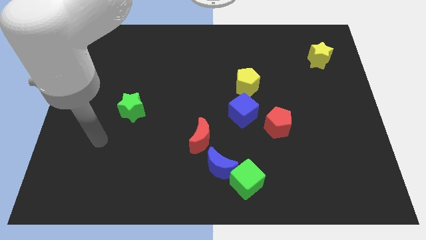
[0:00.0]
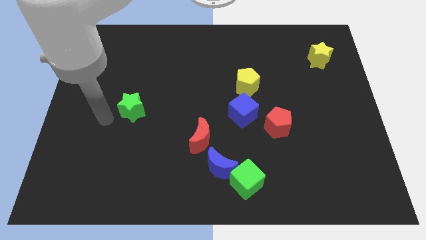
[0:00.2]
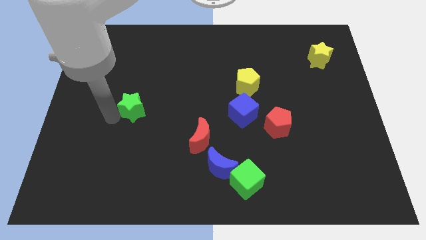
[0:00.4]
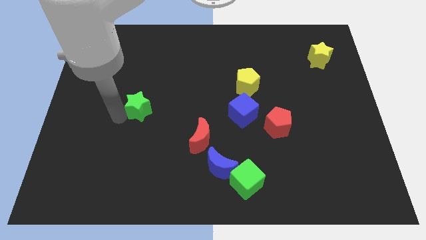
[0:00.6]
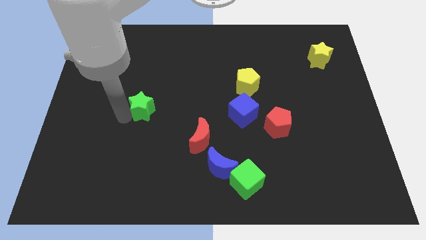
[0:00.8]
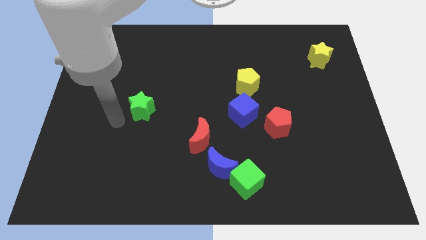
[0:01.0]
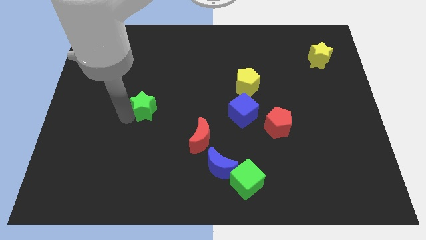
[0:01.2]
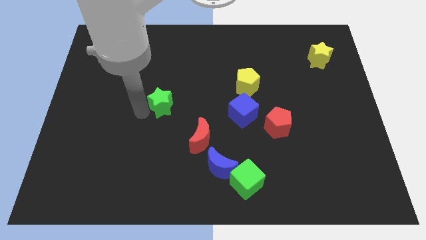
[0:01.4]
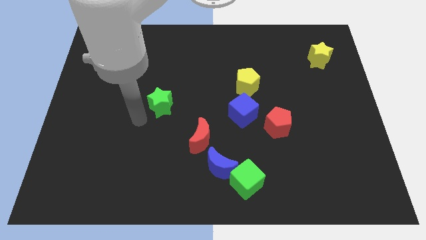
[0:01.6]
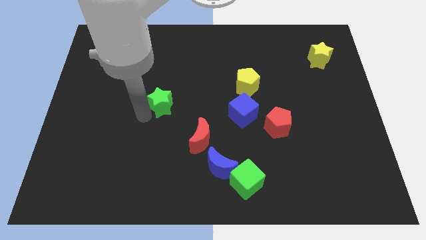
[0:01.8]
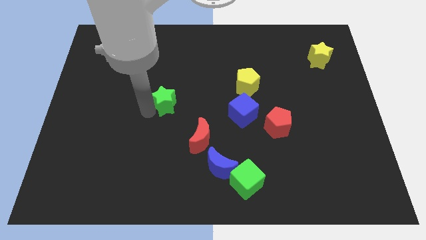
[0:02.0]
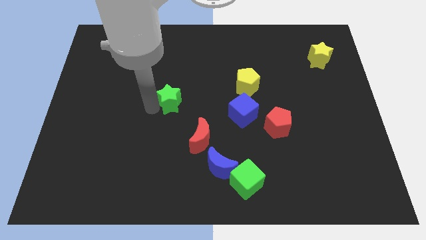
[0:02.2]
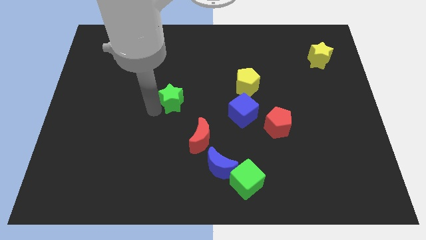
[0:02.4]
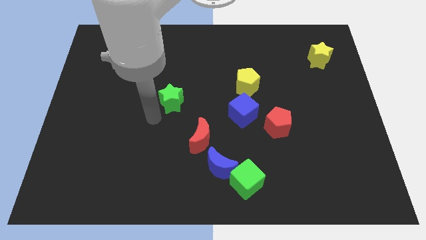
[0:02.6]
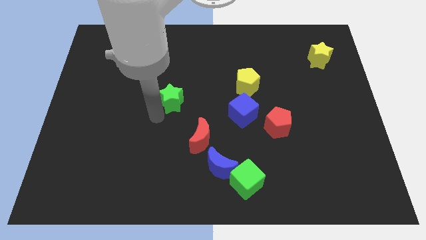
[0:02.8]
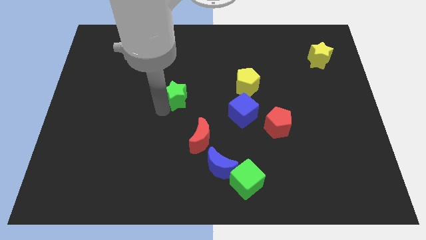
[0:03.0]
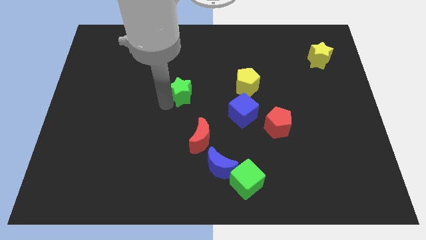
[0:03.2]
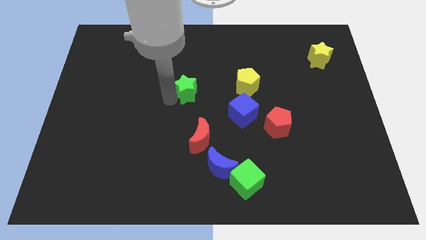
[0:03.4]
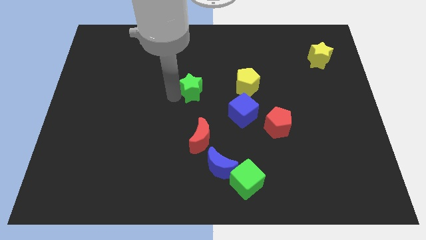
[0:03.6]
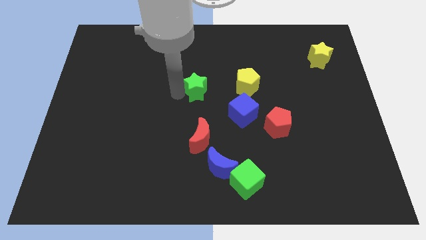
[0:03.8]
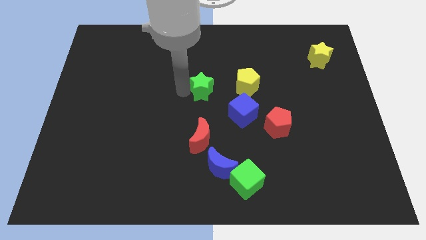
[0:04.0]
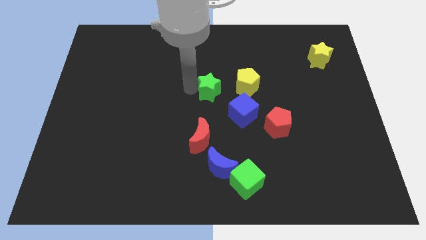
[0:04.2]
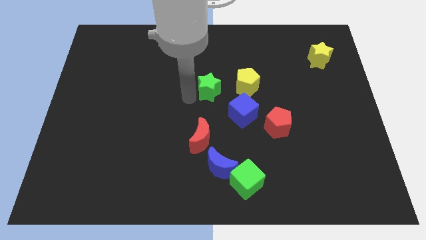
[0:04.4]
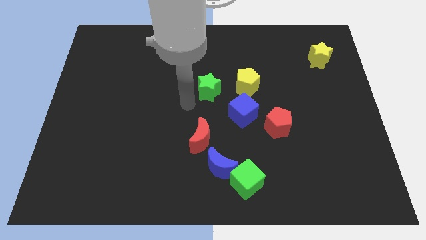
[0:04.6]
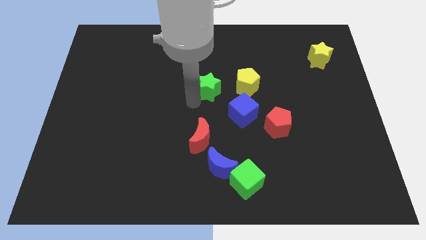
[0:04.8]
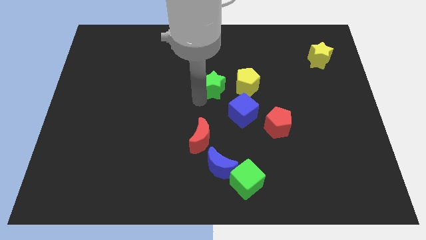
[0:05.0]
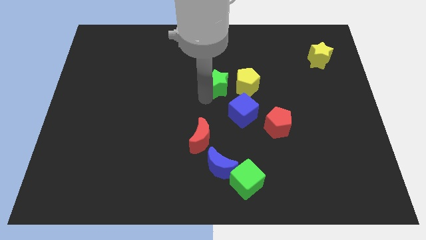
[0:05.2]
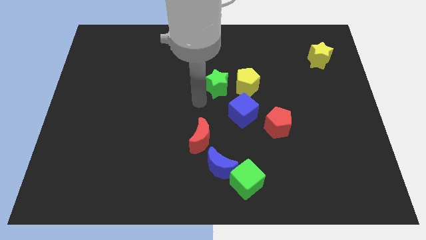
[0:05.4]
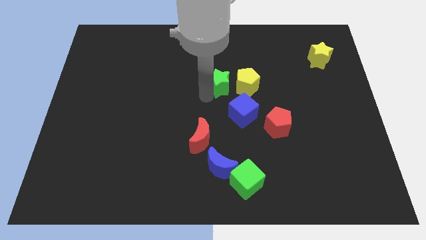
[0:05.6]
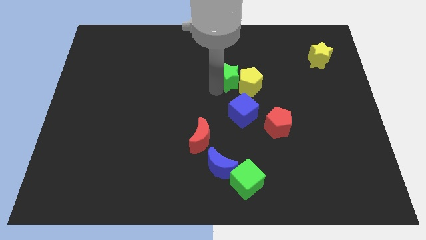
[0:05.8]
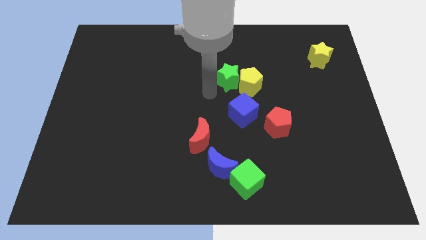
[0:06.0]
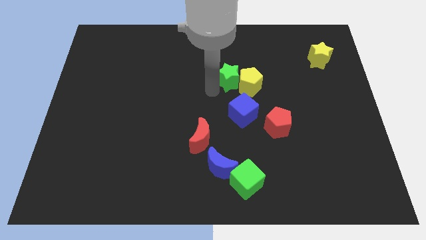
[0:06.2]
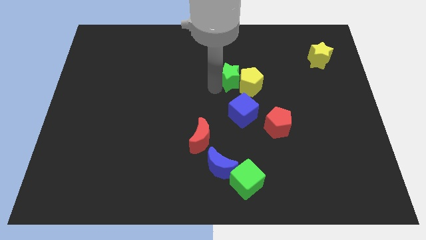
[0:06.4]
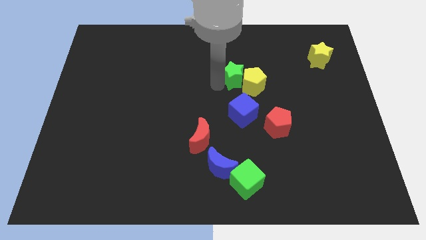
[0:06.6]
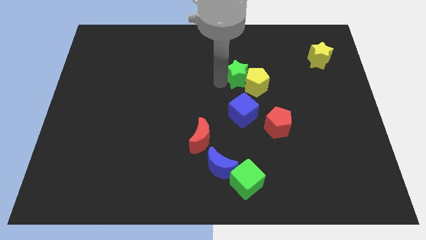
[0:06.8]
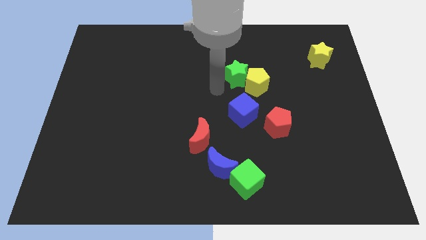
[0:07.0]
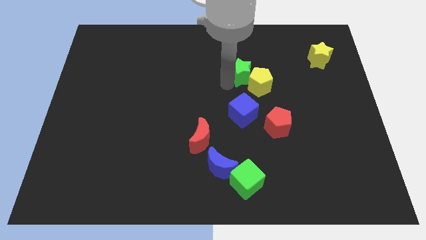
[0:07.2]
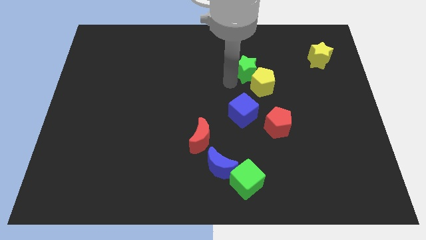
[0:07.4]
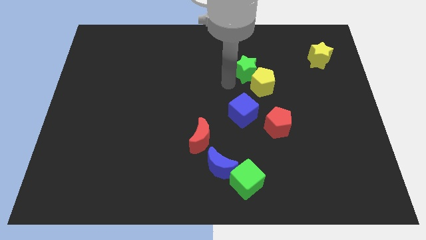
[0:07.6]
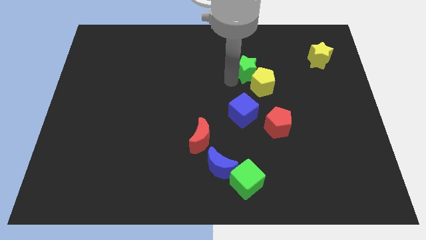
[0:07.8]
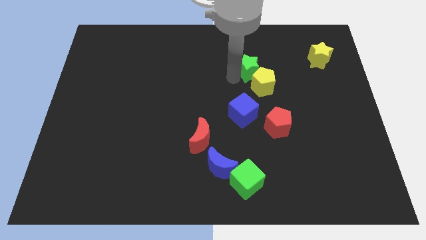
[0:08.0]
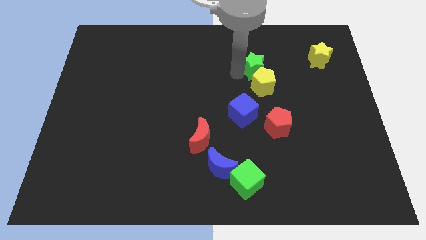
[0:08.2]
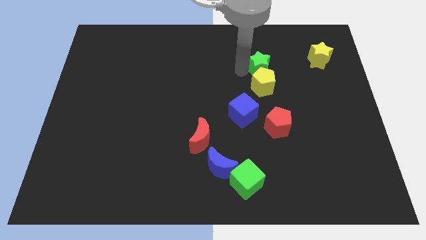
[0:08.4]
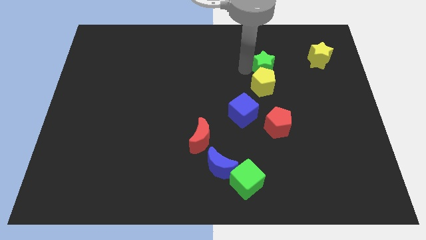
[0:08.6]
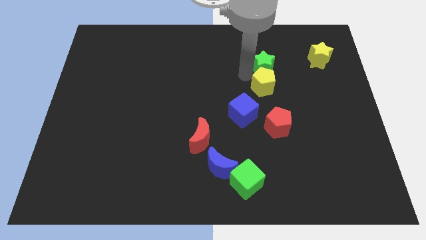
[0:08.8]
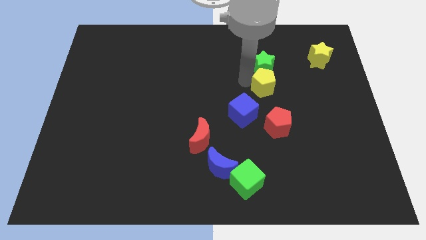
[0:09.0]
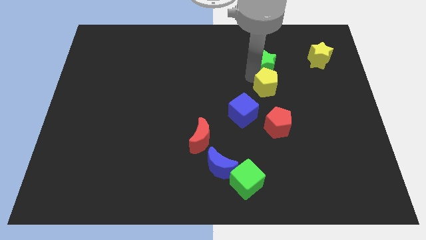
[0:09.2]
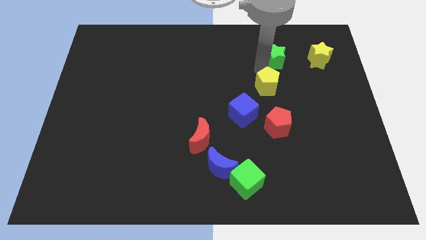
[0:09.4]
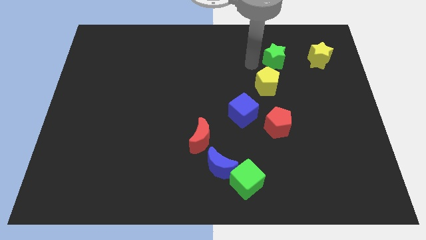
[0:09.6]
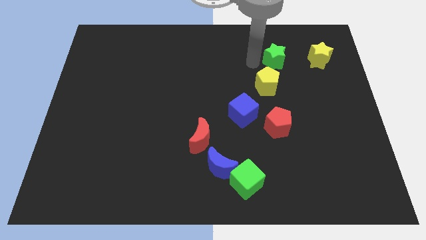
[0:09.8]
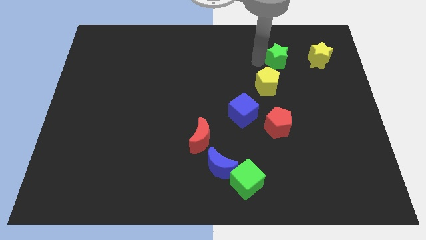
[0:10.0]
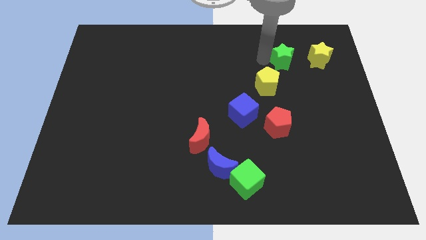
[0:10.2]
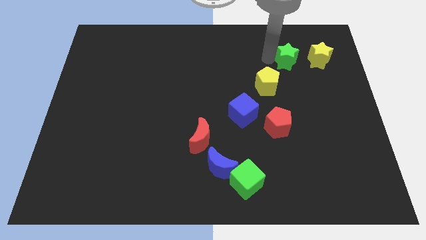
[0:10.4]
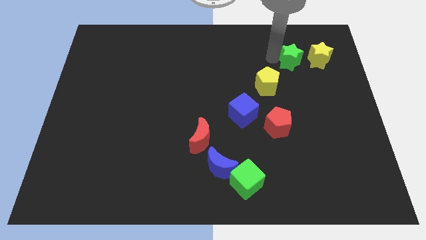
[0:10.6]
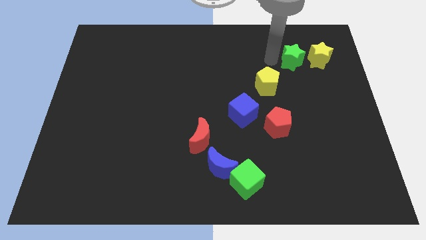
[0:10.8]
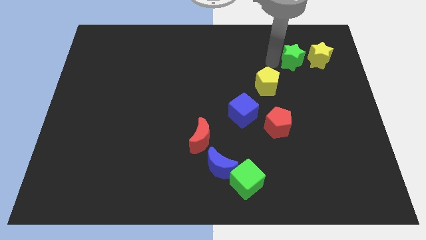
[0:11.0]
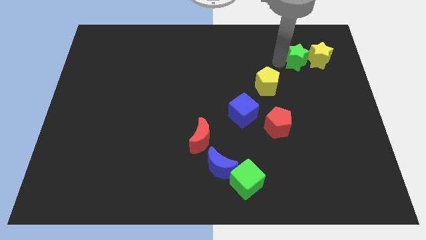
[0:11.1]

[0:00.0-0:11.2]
move the green star close to the yellow star

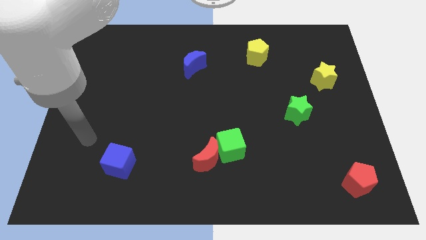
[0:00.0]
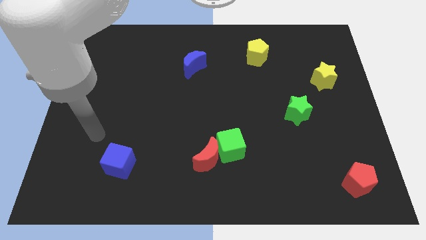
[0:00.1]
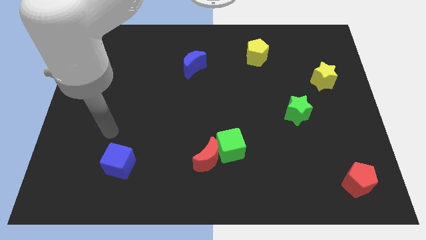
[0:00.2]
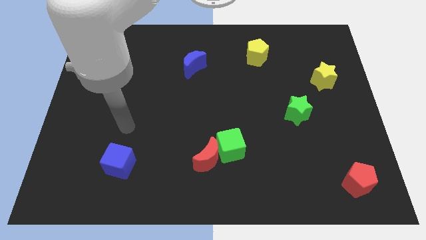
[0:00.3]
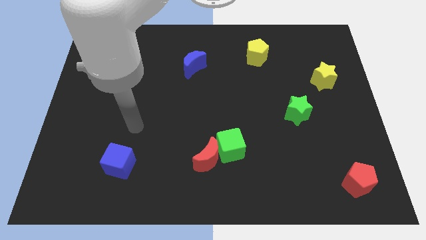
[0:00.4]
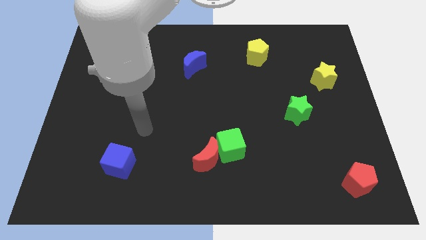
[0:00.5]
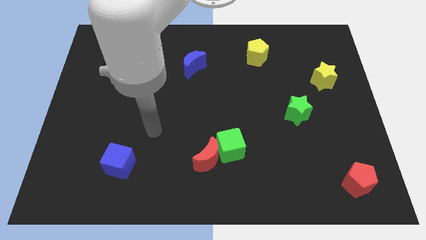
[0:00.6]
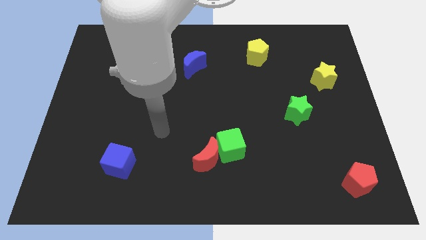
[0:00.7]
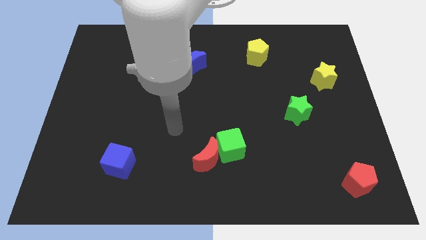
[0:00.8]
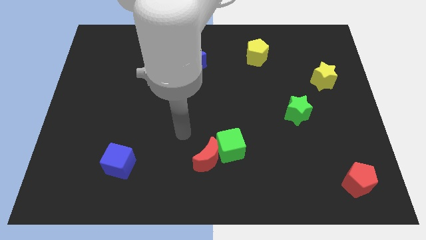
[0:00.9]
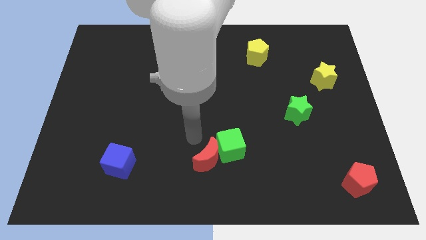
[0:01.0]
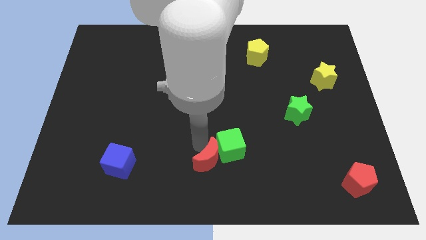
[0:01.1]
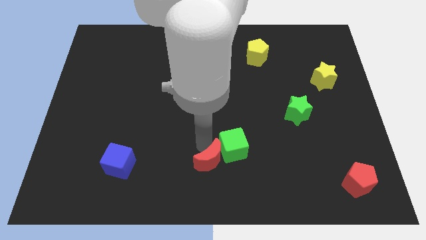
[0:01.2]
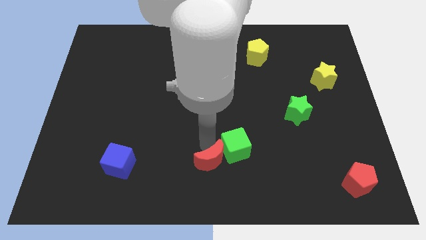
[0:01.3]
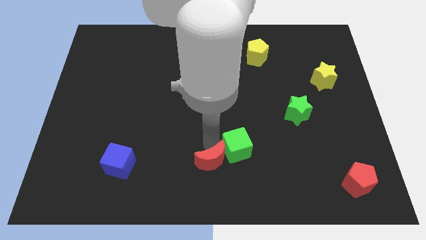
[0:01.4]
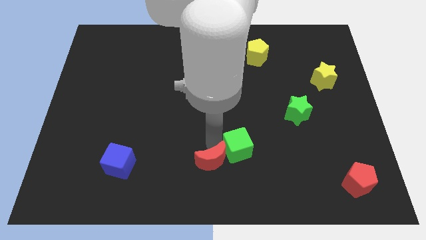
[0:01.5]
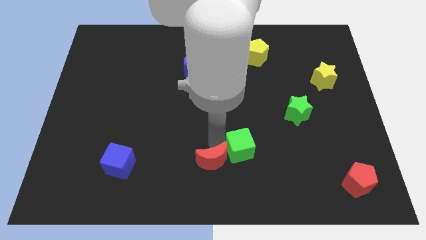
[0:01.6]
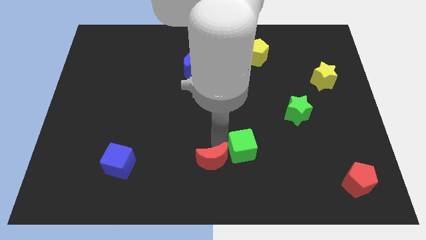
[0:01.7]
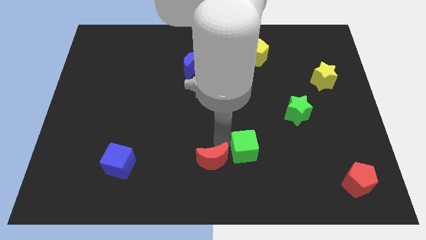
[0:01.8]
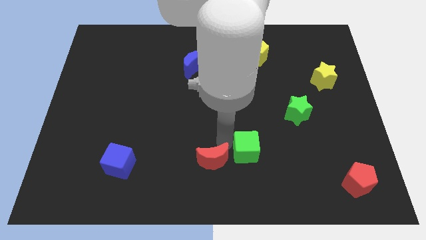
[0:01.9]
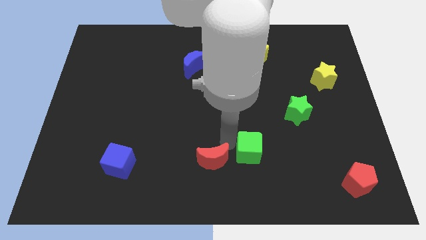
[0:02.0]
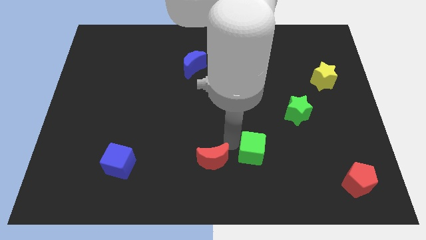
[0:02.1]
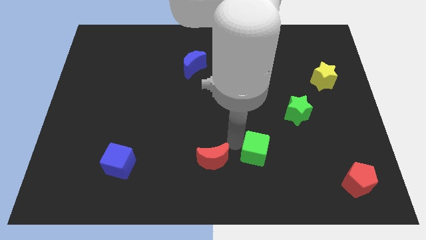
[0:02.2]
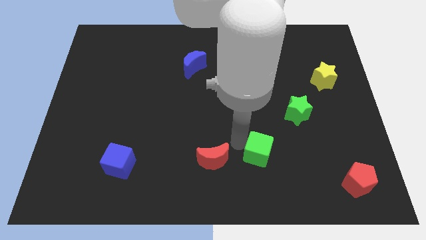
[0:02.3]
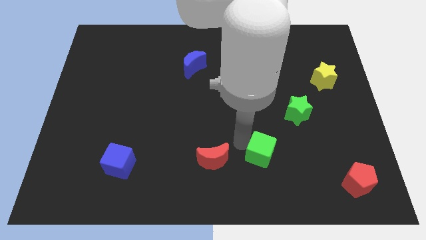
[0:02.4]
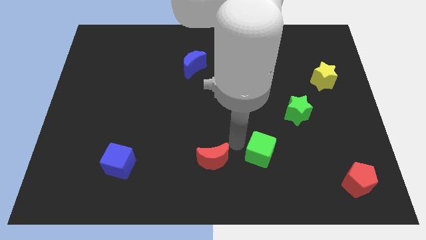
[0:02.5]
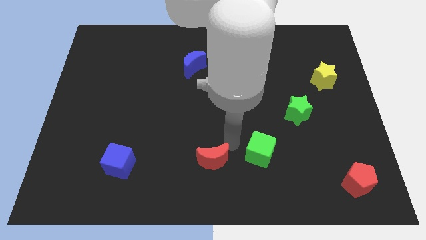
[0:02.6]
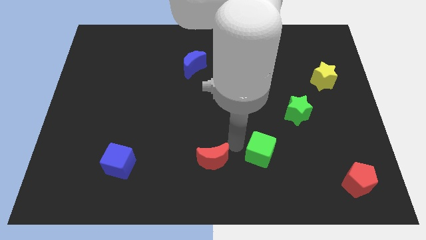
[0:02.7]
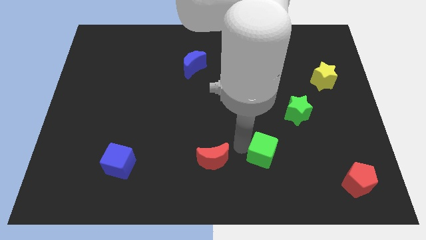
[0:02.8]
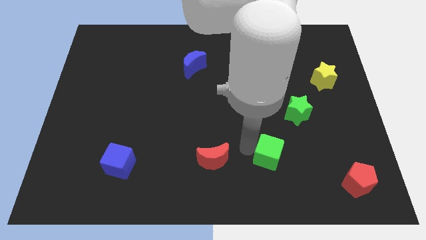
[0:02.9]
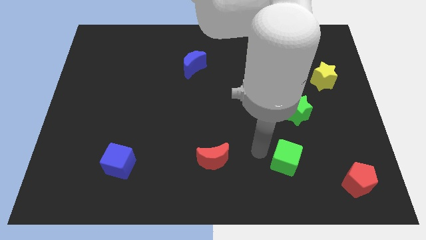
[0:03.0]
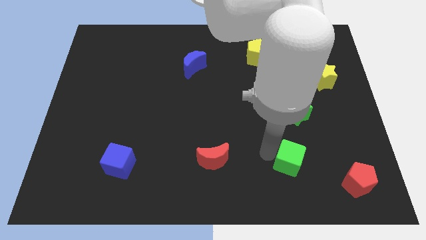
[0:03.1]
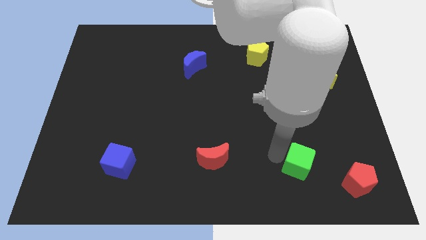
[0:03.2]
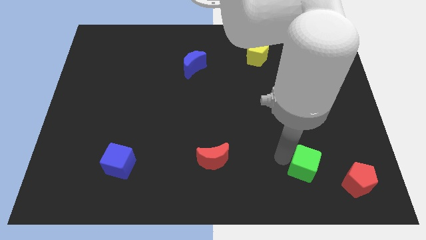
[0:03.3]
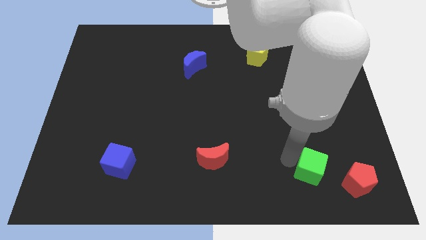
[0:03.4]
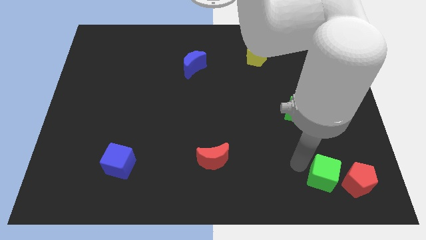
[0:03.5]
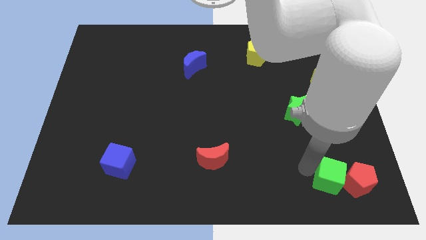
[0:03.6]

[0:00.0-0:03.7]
put the green cube close to the red pentagon
